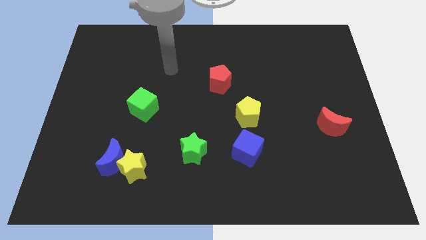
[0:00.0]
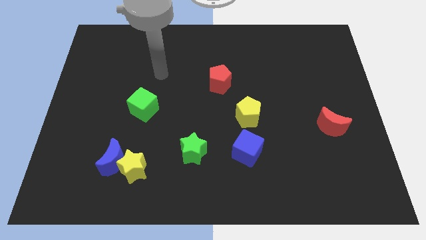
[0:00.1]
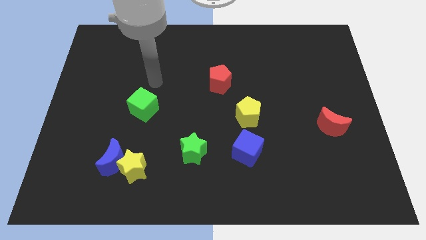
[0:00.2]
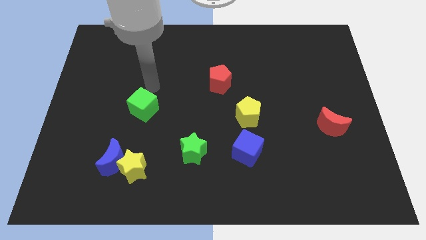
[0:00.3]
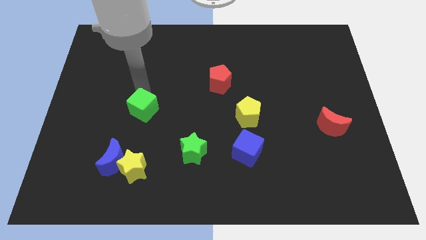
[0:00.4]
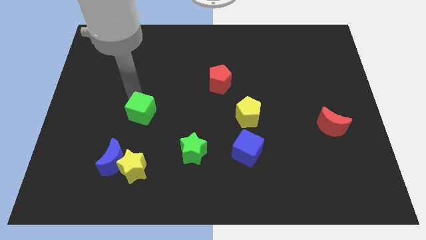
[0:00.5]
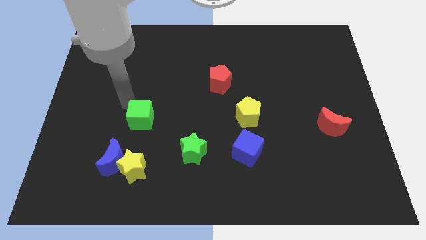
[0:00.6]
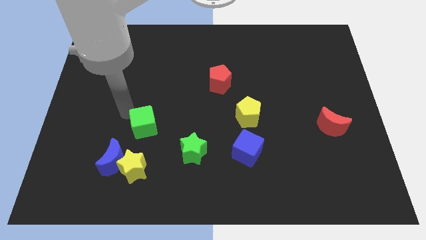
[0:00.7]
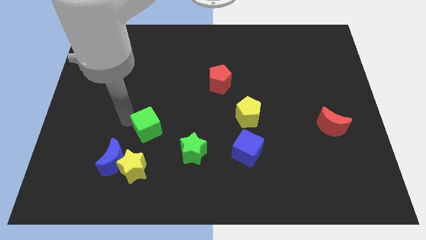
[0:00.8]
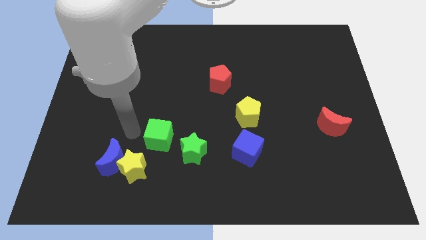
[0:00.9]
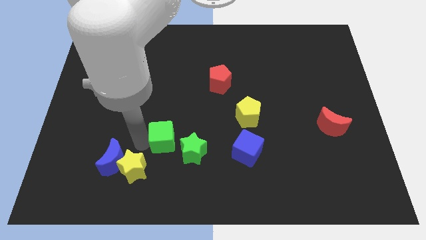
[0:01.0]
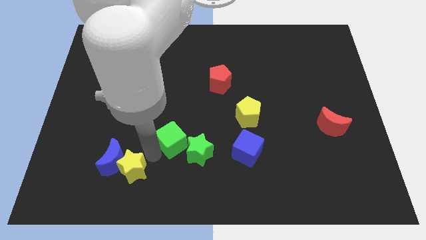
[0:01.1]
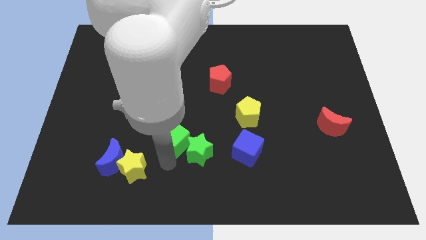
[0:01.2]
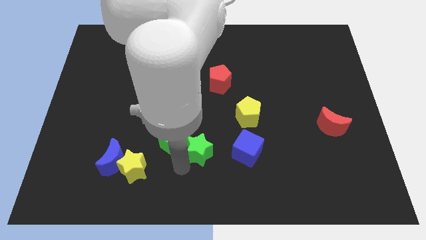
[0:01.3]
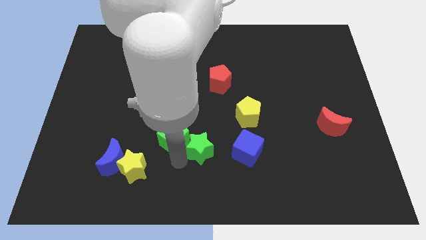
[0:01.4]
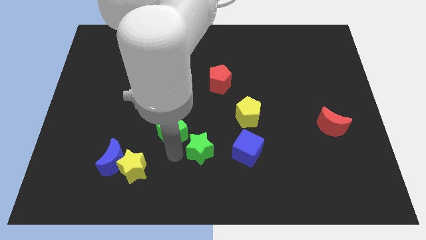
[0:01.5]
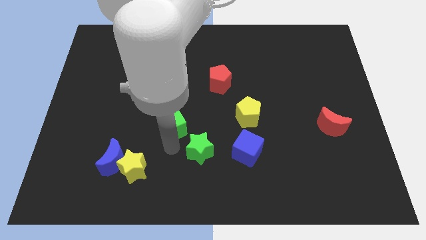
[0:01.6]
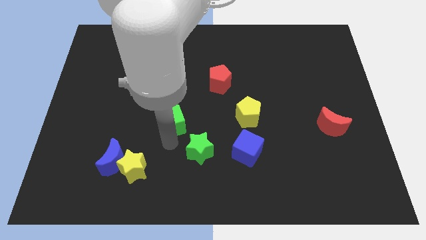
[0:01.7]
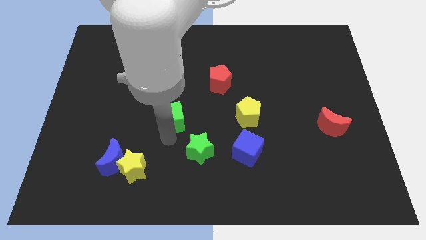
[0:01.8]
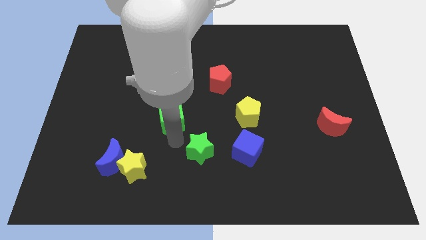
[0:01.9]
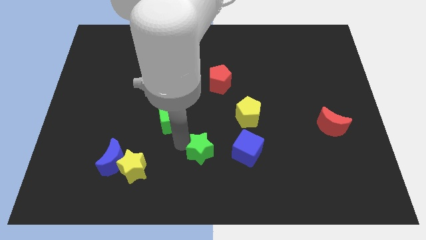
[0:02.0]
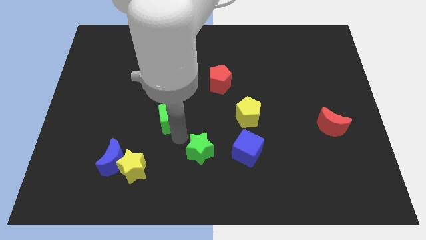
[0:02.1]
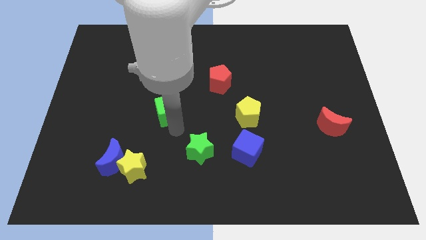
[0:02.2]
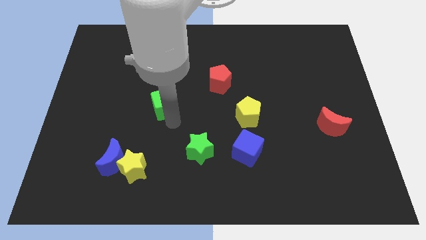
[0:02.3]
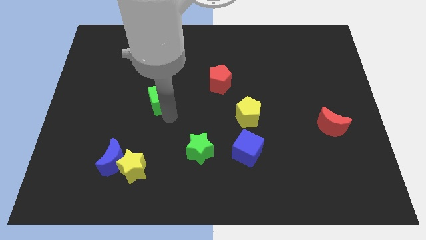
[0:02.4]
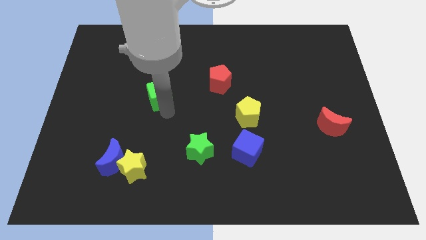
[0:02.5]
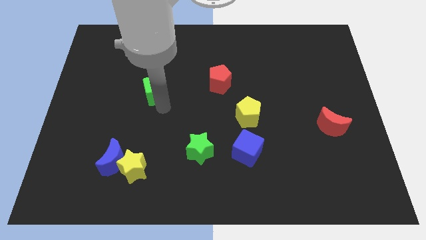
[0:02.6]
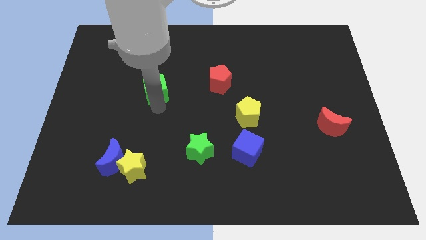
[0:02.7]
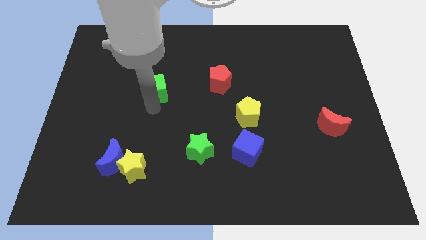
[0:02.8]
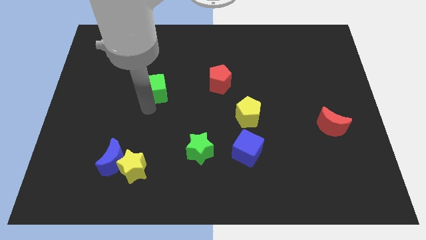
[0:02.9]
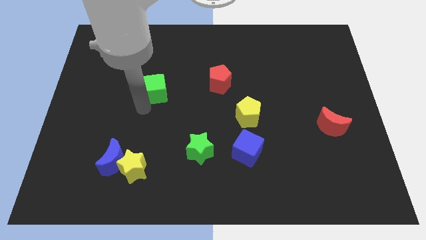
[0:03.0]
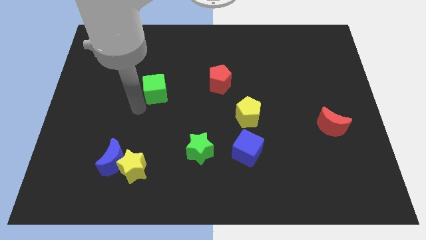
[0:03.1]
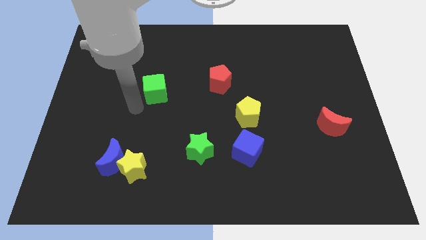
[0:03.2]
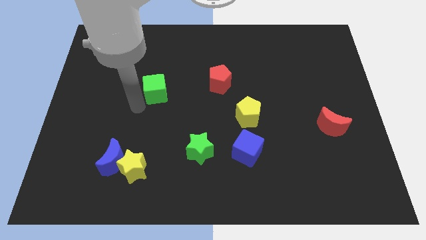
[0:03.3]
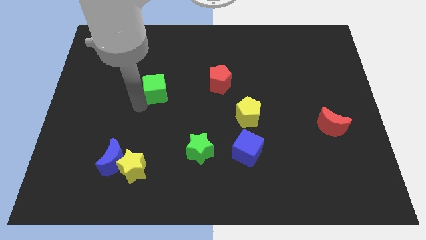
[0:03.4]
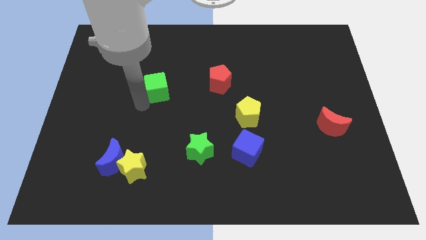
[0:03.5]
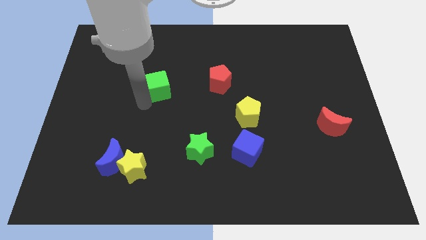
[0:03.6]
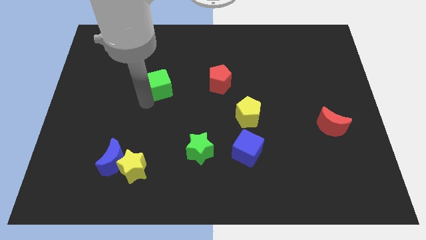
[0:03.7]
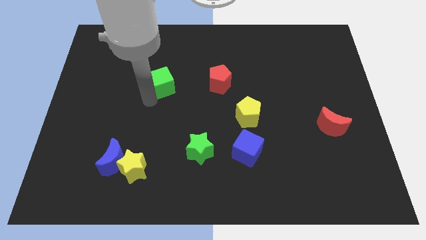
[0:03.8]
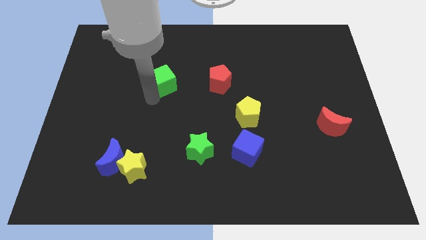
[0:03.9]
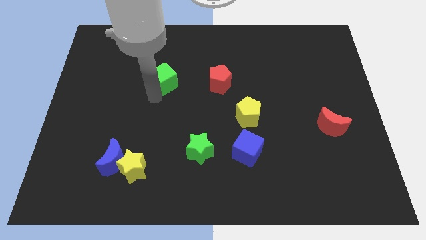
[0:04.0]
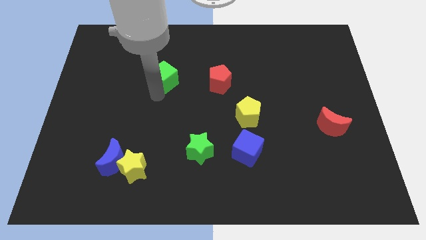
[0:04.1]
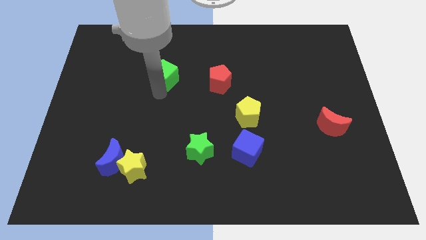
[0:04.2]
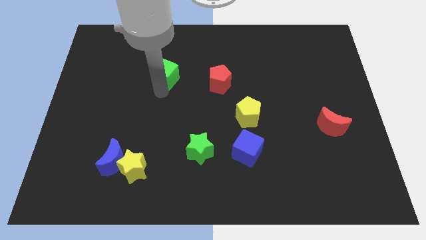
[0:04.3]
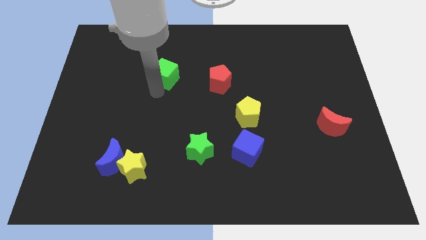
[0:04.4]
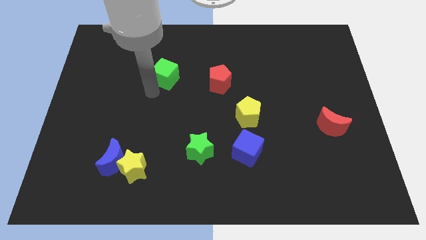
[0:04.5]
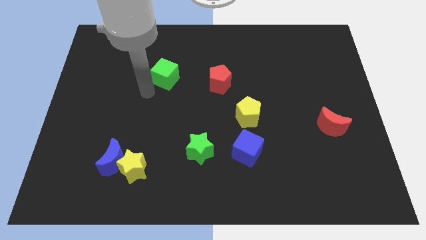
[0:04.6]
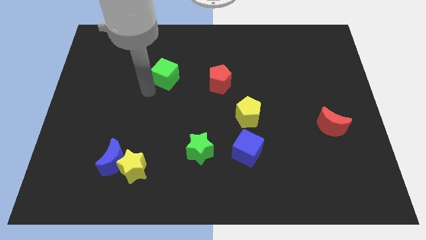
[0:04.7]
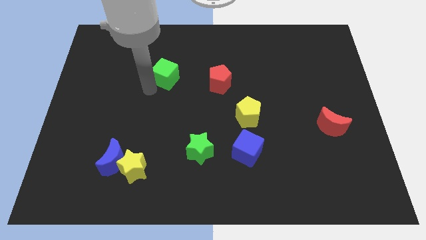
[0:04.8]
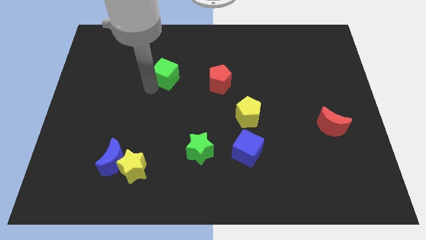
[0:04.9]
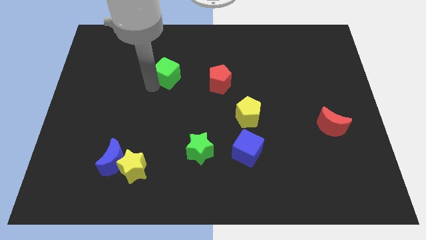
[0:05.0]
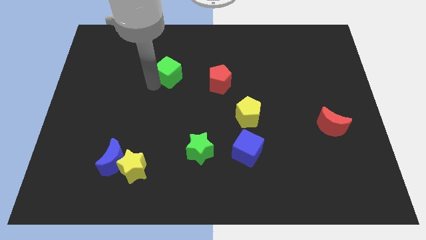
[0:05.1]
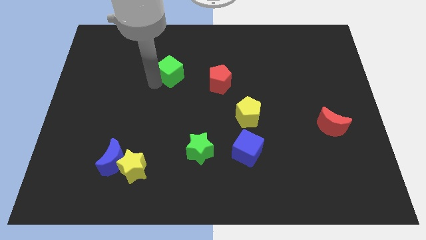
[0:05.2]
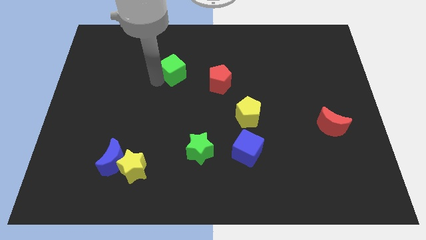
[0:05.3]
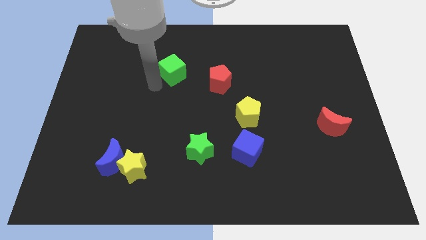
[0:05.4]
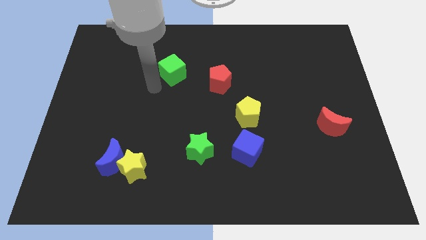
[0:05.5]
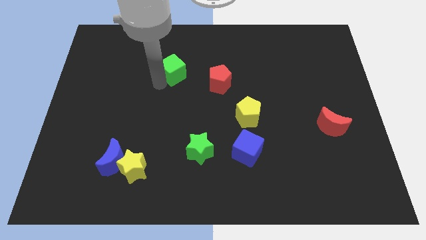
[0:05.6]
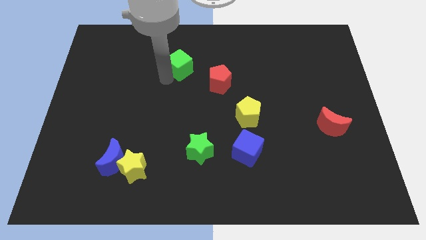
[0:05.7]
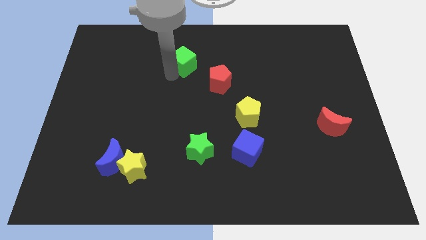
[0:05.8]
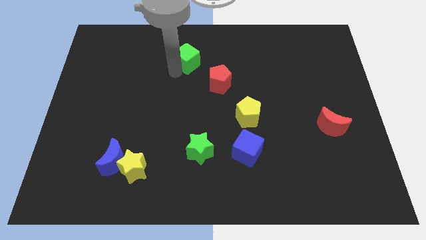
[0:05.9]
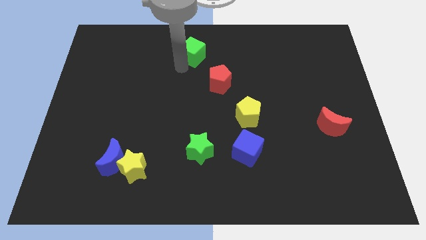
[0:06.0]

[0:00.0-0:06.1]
put the green cube to the top side
